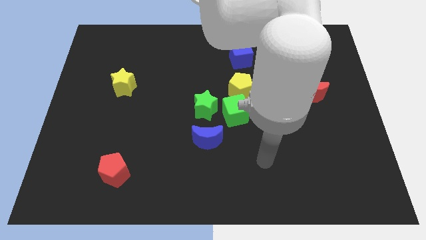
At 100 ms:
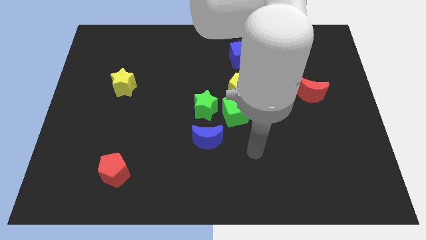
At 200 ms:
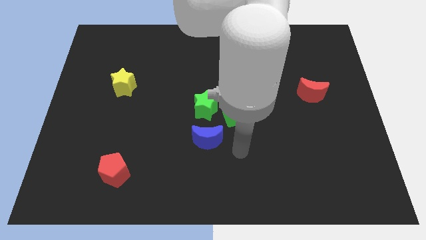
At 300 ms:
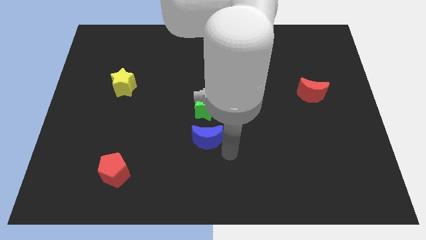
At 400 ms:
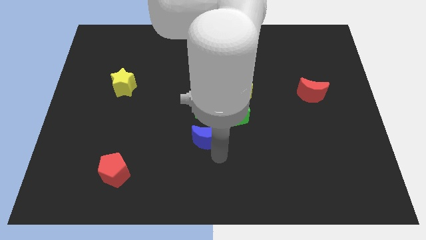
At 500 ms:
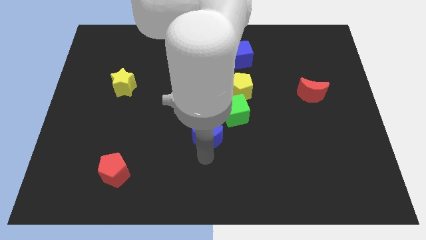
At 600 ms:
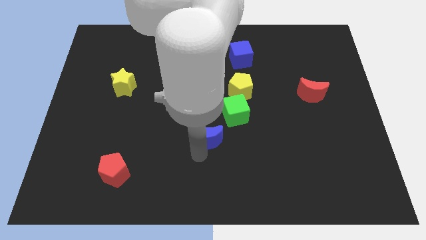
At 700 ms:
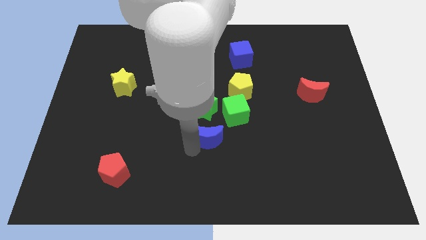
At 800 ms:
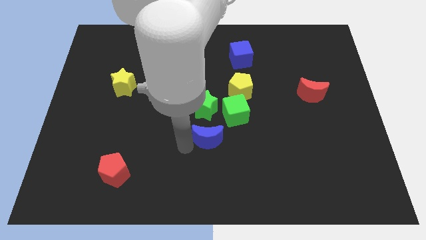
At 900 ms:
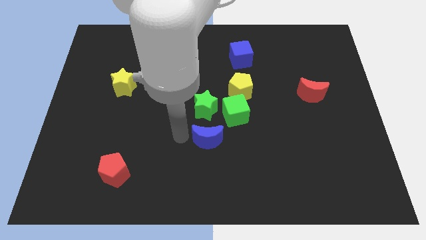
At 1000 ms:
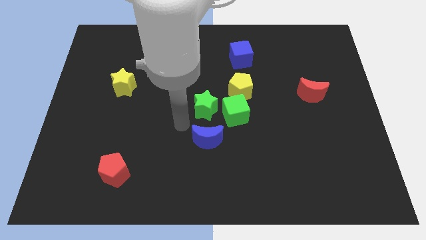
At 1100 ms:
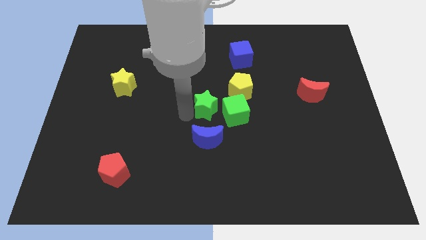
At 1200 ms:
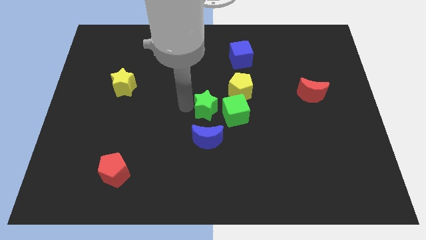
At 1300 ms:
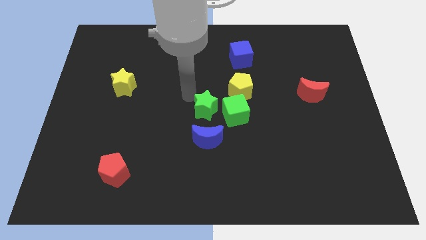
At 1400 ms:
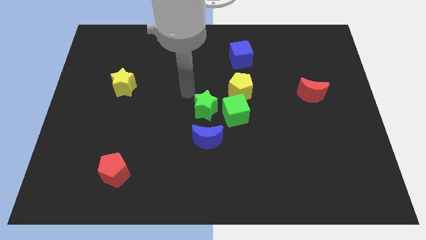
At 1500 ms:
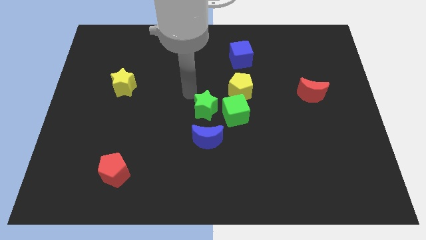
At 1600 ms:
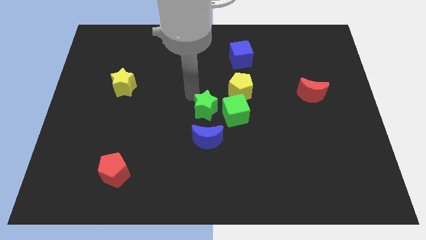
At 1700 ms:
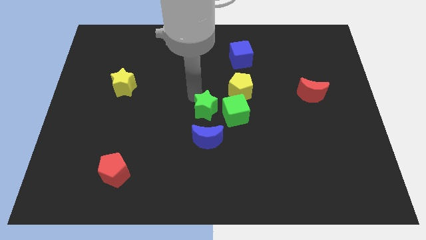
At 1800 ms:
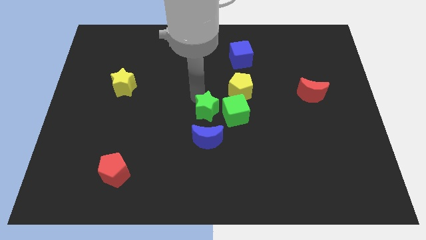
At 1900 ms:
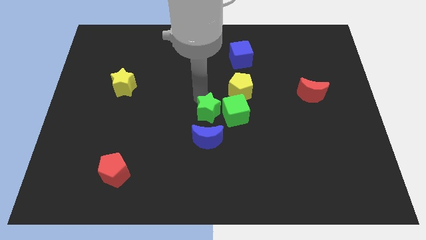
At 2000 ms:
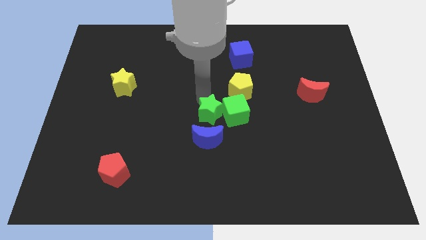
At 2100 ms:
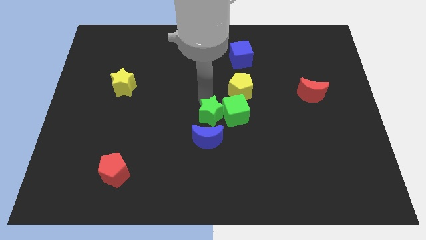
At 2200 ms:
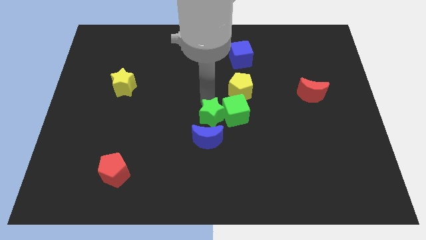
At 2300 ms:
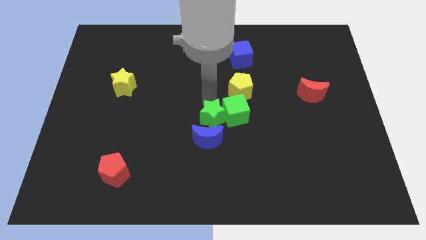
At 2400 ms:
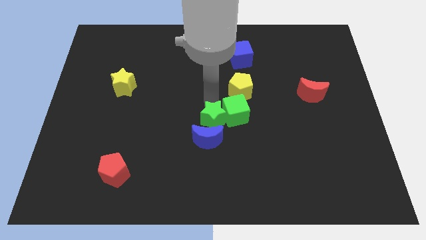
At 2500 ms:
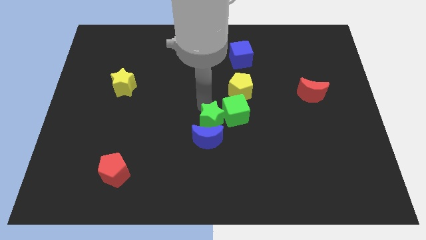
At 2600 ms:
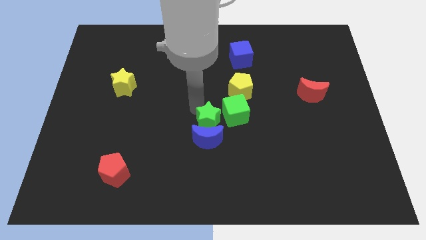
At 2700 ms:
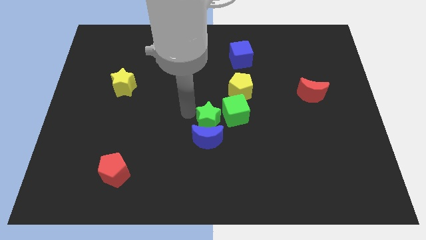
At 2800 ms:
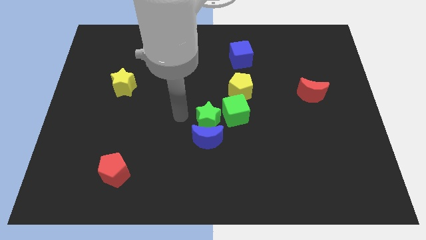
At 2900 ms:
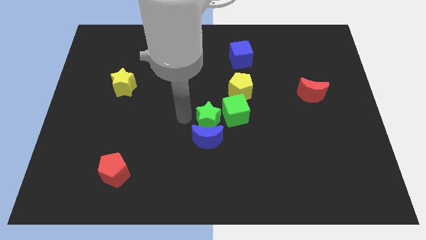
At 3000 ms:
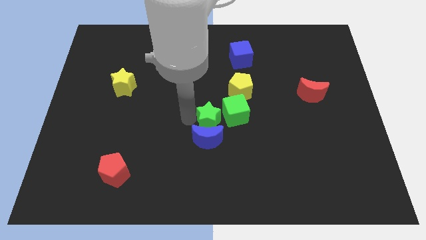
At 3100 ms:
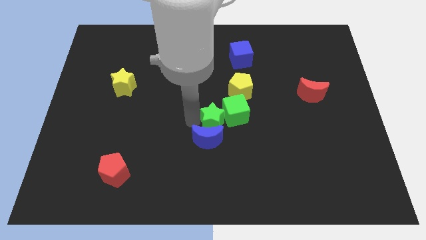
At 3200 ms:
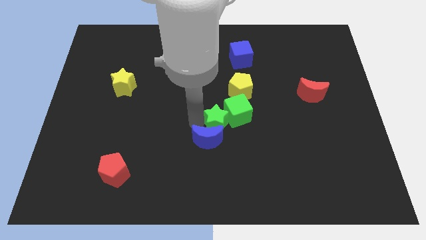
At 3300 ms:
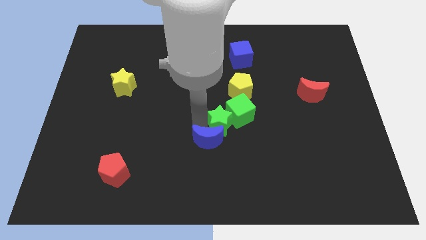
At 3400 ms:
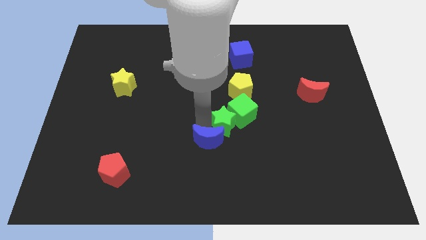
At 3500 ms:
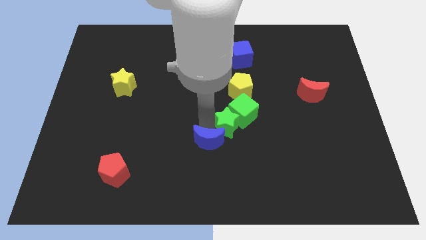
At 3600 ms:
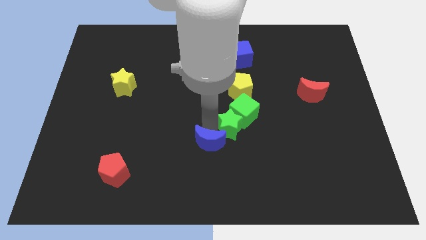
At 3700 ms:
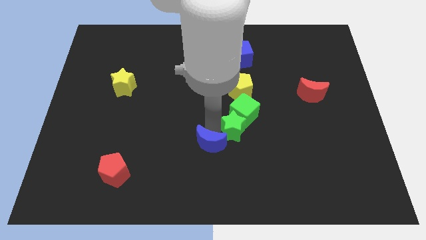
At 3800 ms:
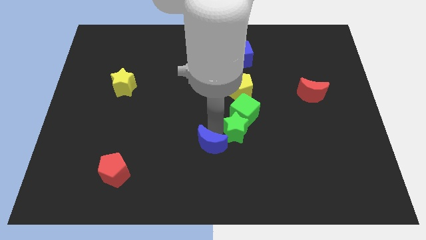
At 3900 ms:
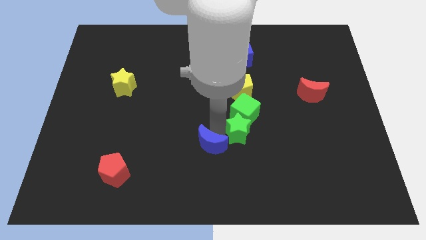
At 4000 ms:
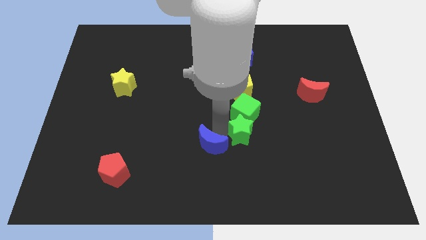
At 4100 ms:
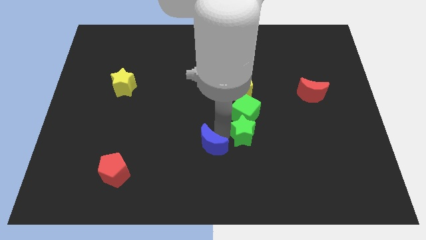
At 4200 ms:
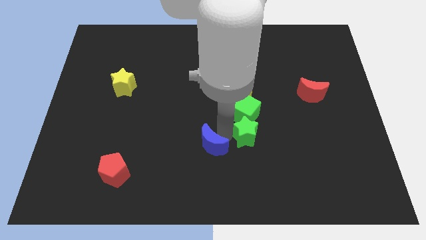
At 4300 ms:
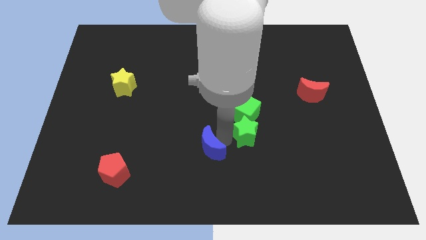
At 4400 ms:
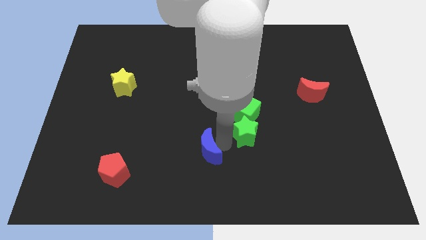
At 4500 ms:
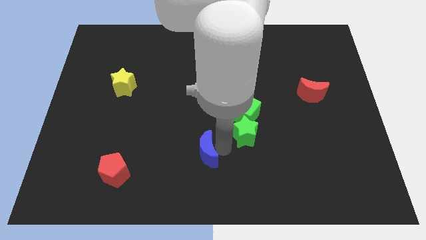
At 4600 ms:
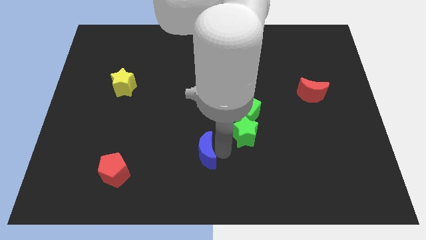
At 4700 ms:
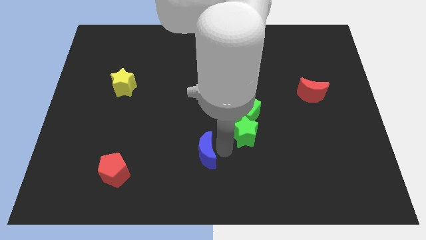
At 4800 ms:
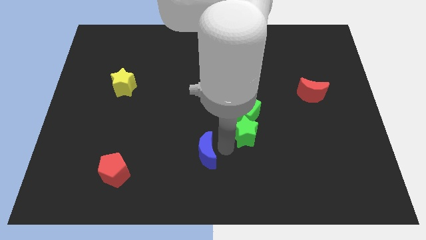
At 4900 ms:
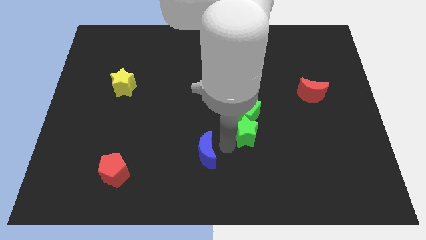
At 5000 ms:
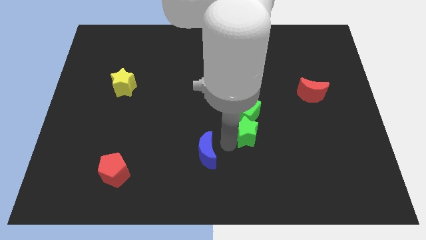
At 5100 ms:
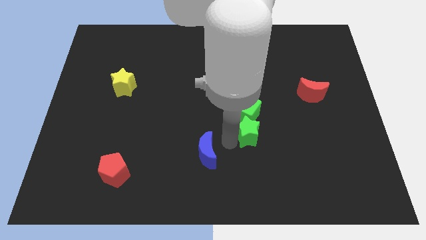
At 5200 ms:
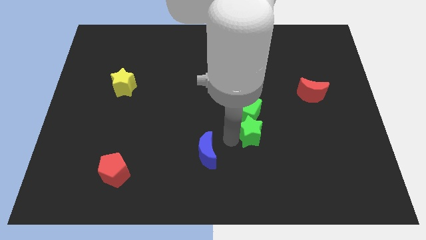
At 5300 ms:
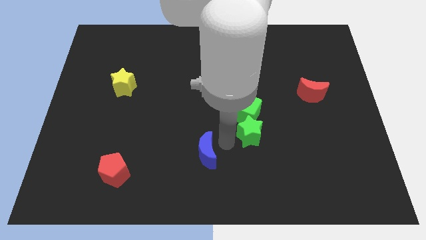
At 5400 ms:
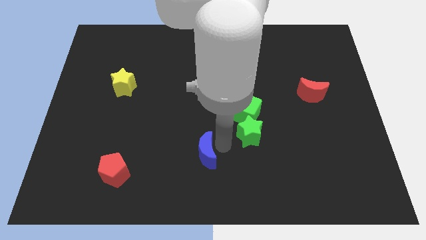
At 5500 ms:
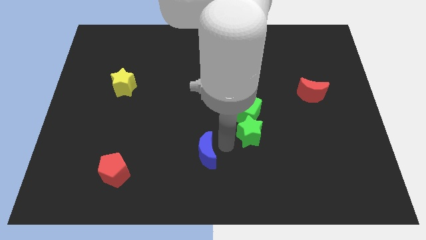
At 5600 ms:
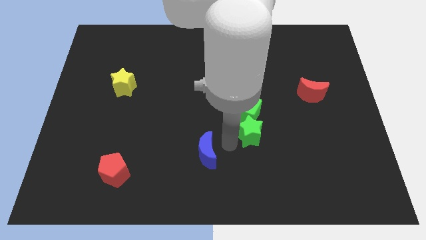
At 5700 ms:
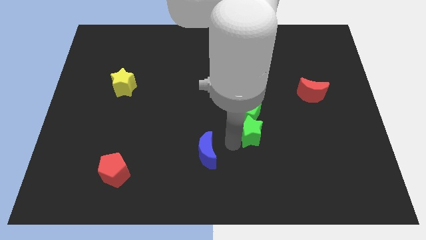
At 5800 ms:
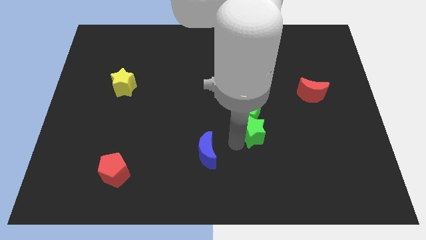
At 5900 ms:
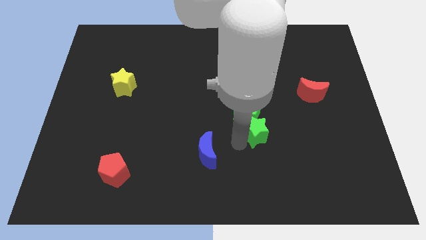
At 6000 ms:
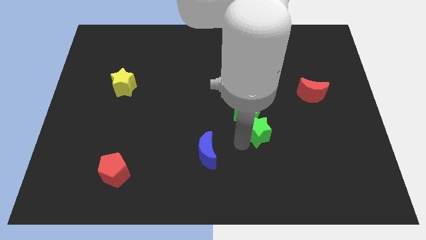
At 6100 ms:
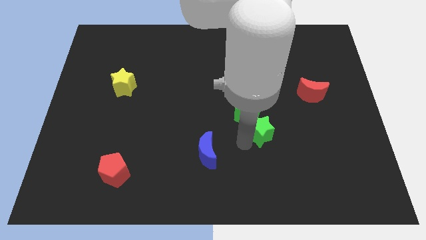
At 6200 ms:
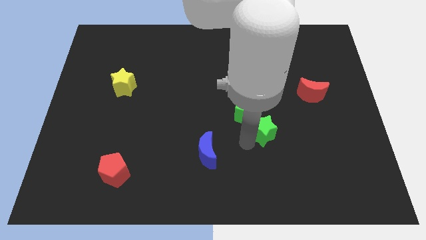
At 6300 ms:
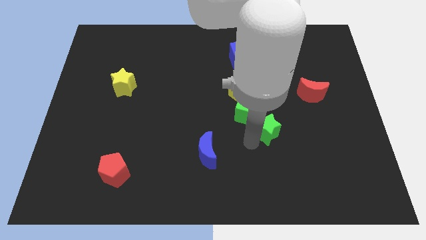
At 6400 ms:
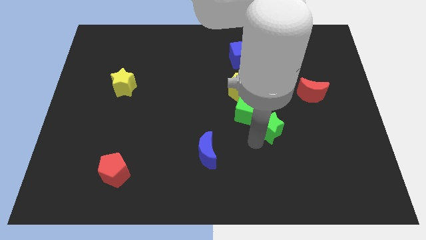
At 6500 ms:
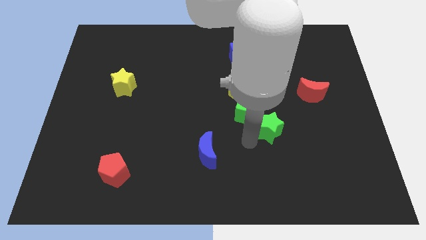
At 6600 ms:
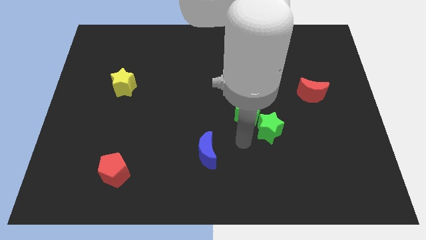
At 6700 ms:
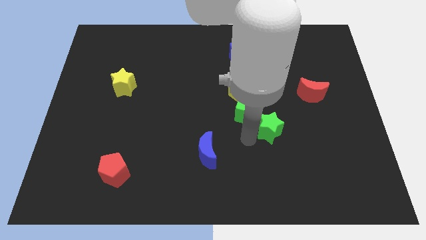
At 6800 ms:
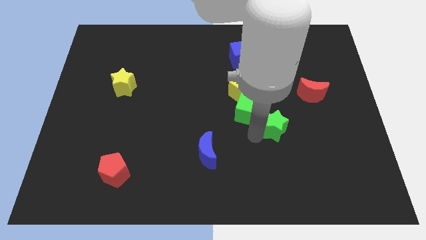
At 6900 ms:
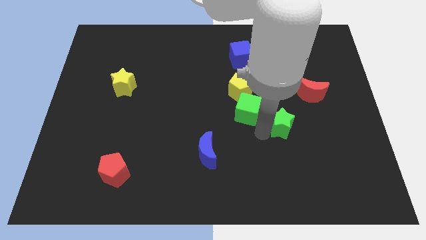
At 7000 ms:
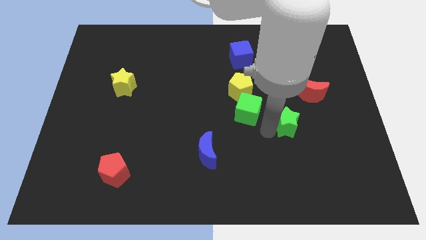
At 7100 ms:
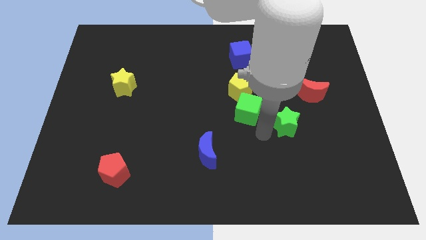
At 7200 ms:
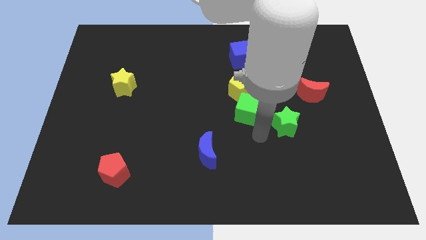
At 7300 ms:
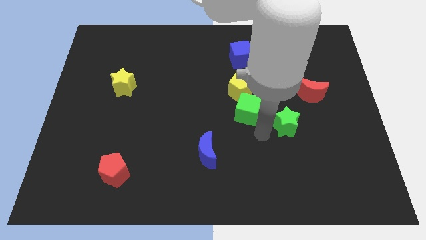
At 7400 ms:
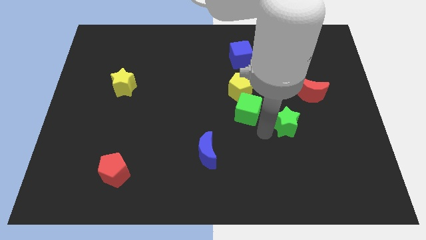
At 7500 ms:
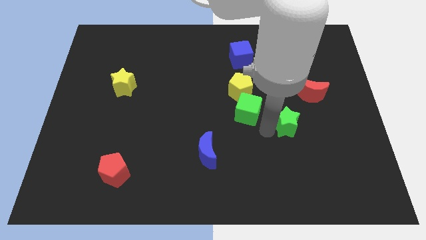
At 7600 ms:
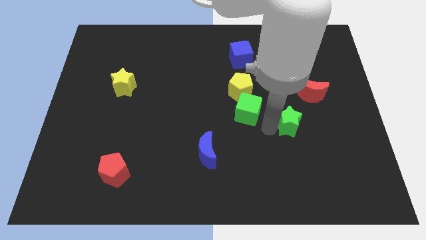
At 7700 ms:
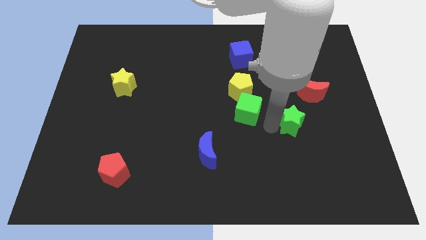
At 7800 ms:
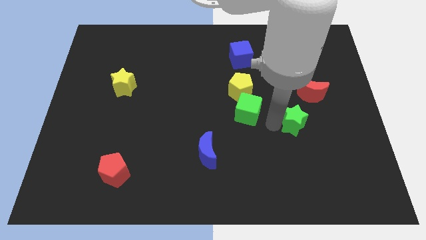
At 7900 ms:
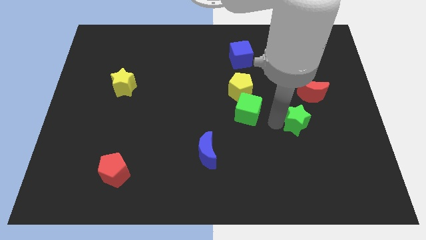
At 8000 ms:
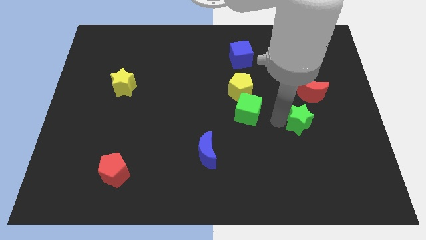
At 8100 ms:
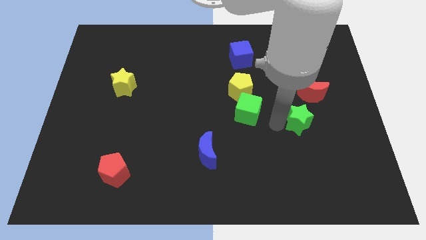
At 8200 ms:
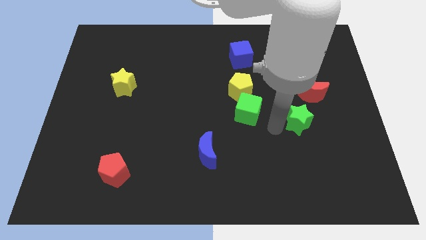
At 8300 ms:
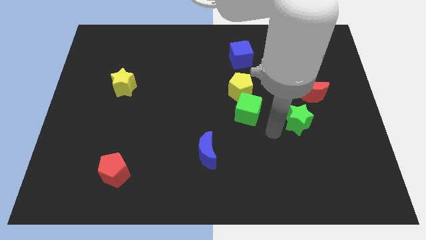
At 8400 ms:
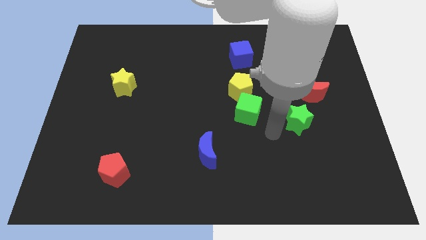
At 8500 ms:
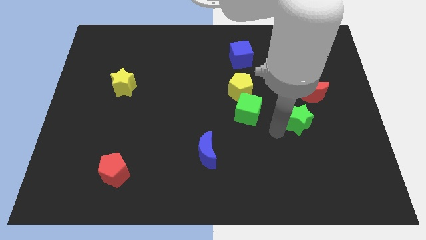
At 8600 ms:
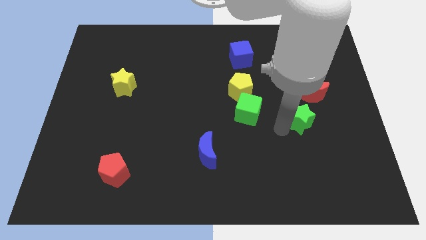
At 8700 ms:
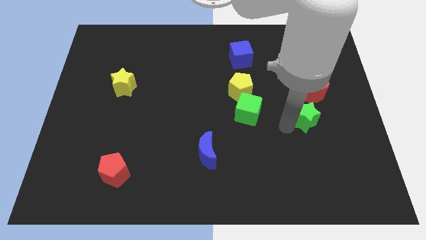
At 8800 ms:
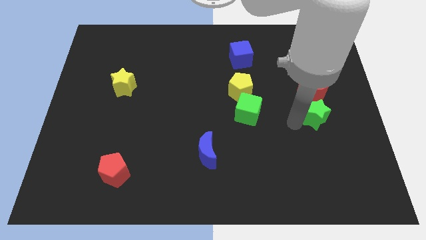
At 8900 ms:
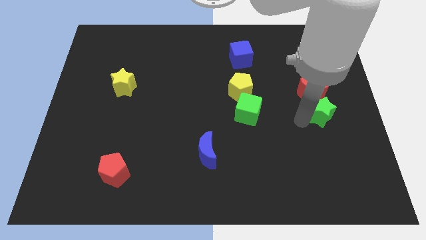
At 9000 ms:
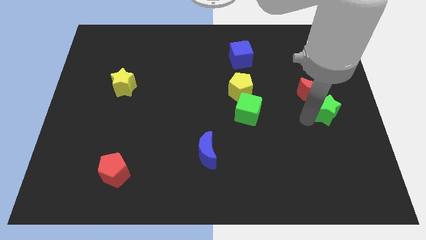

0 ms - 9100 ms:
slide the green star to the right side
